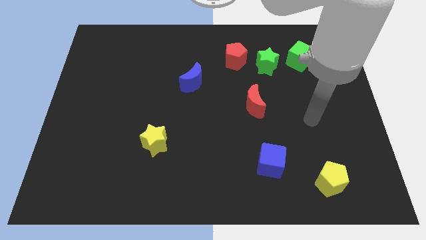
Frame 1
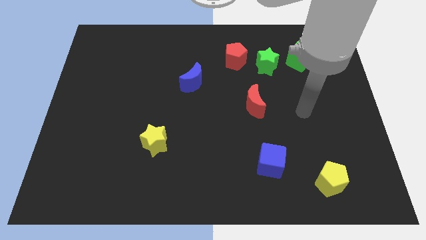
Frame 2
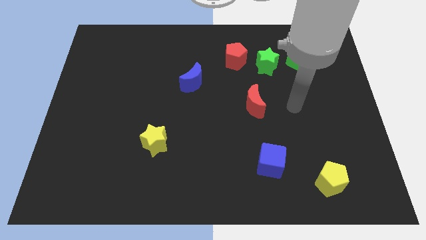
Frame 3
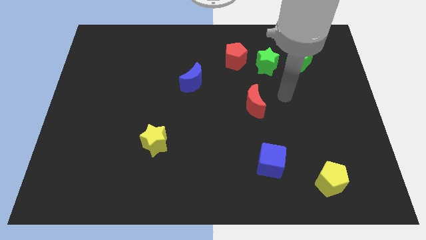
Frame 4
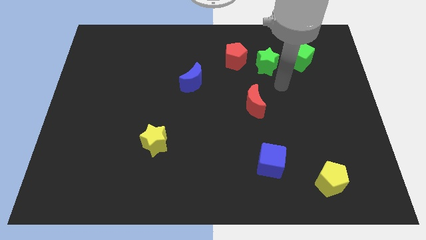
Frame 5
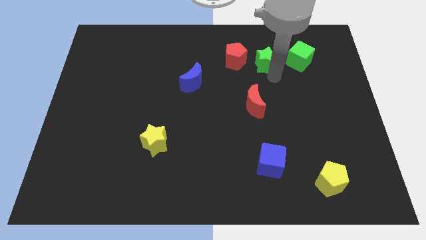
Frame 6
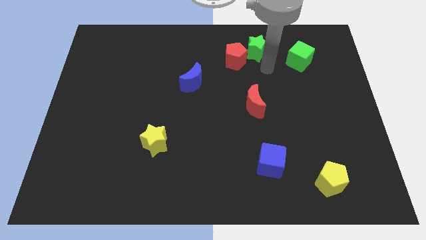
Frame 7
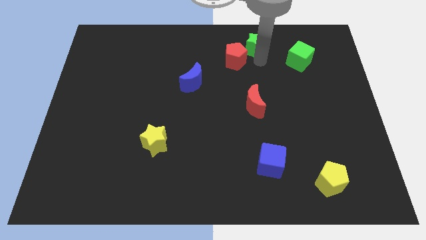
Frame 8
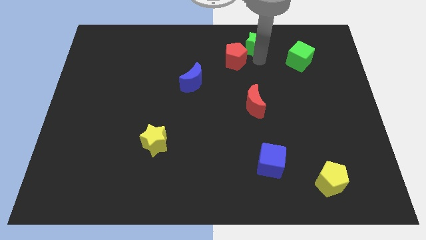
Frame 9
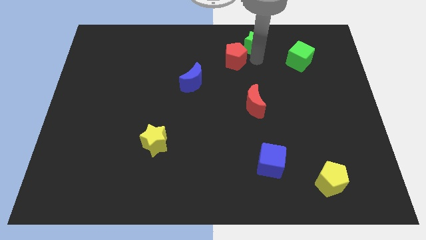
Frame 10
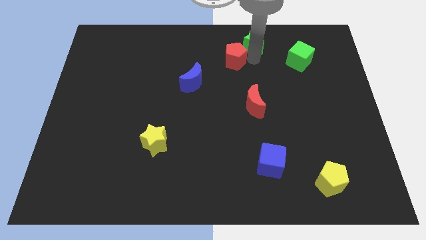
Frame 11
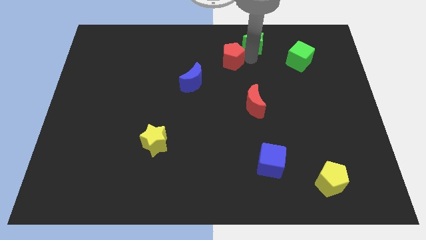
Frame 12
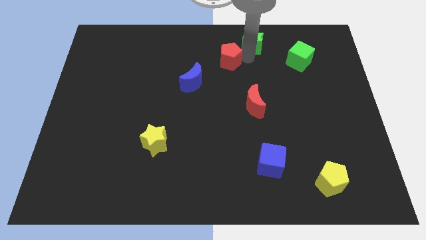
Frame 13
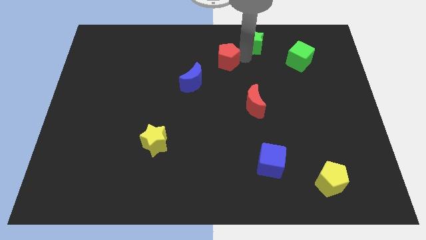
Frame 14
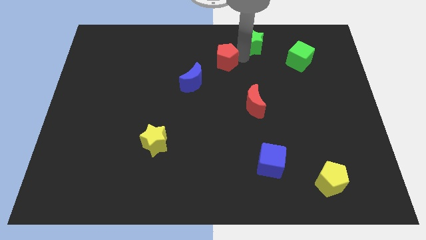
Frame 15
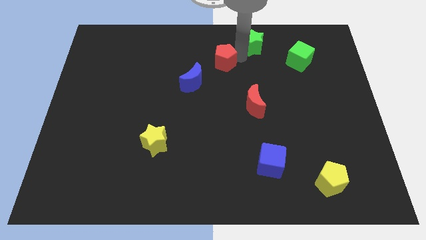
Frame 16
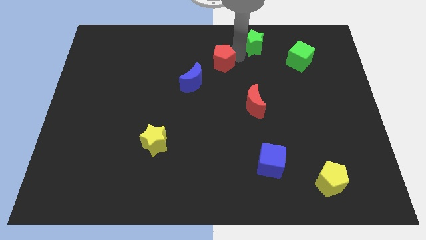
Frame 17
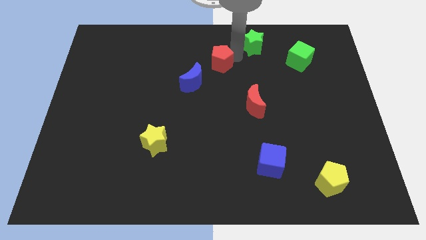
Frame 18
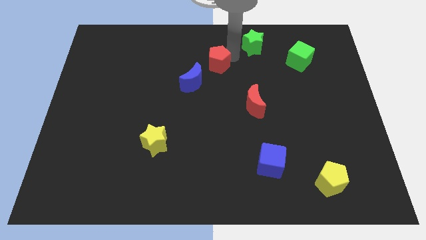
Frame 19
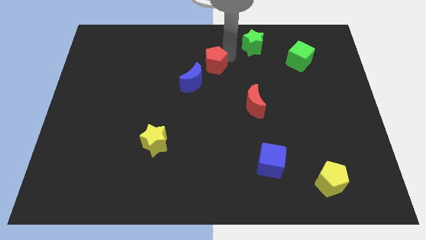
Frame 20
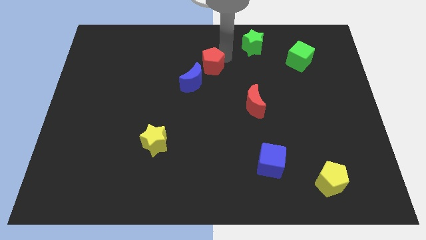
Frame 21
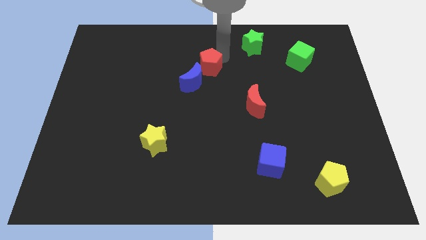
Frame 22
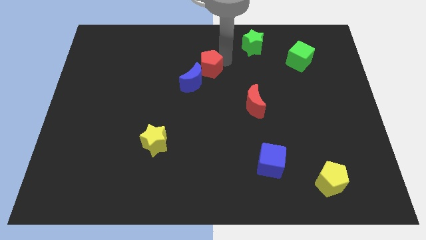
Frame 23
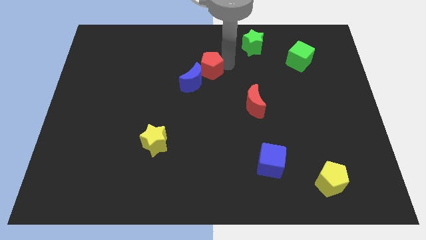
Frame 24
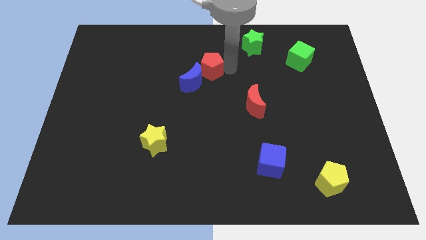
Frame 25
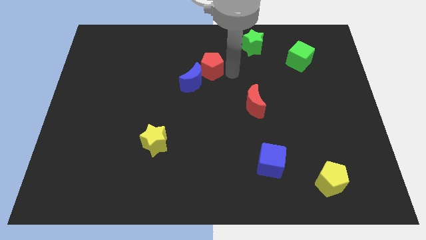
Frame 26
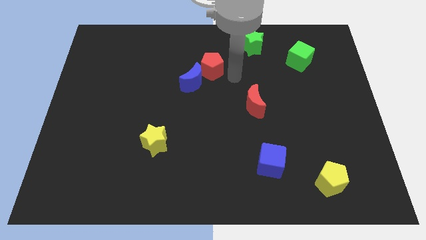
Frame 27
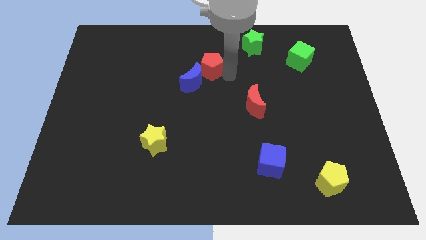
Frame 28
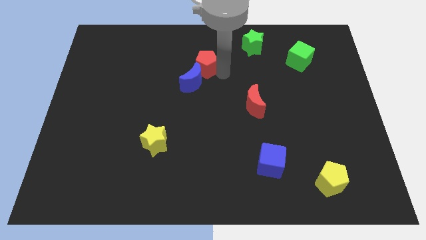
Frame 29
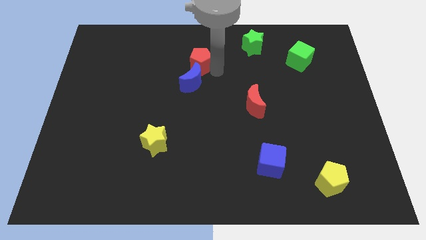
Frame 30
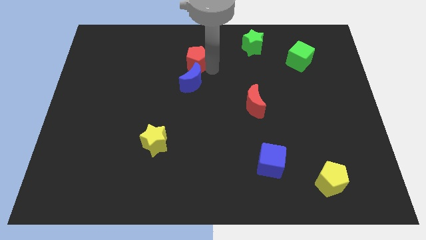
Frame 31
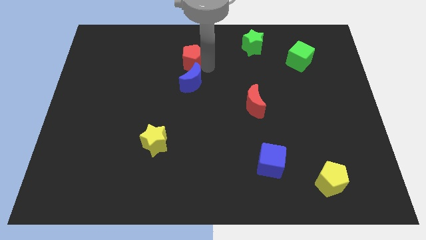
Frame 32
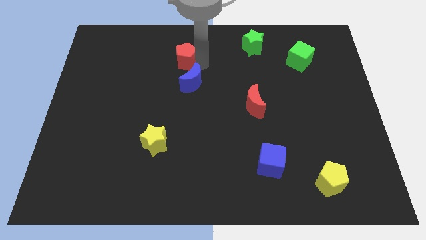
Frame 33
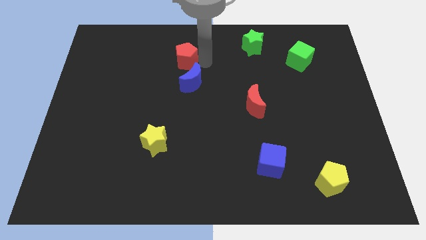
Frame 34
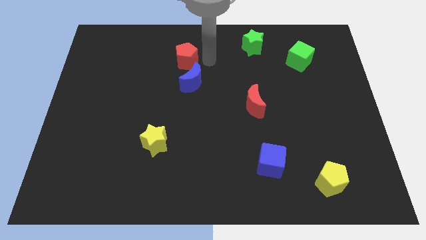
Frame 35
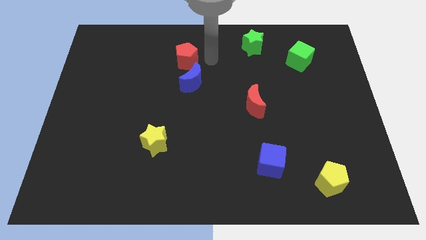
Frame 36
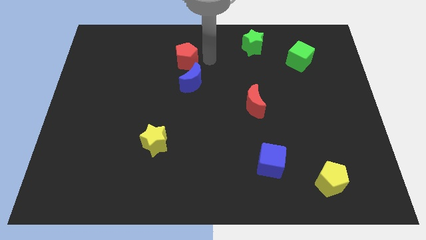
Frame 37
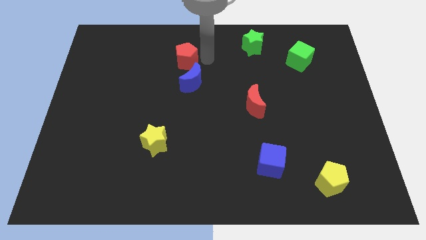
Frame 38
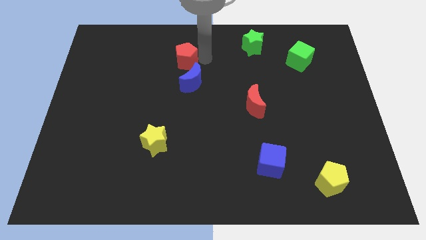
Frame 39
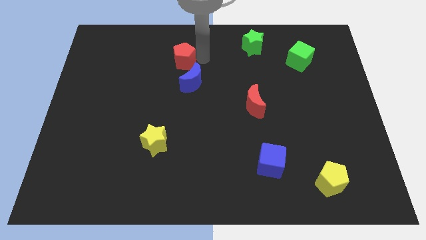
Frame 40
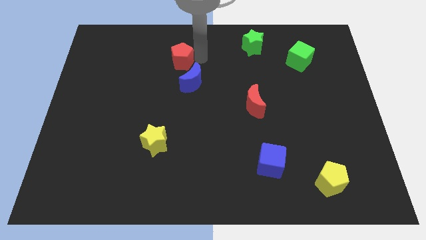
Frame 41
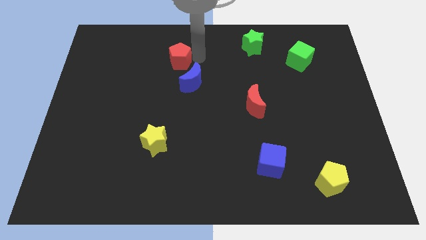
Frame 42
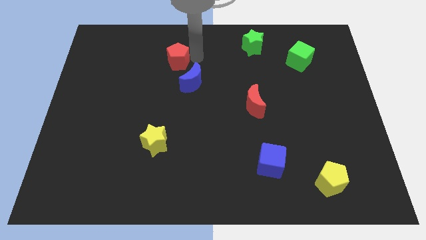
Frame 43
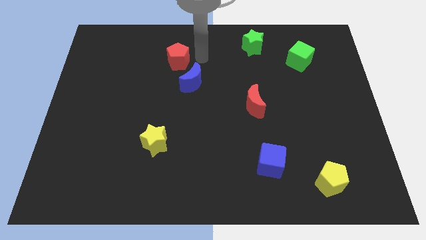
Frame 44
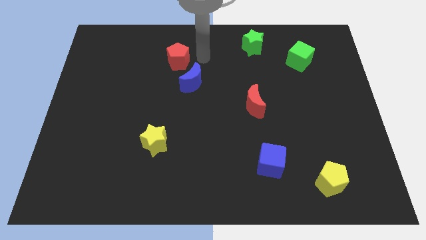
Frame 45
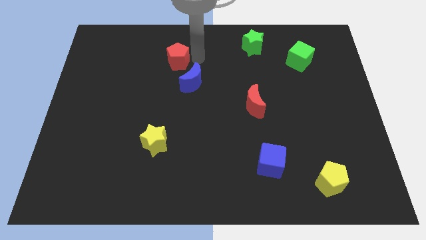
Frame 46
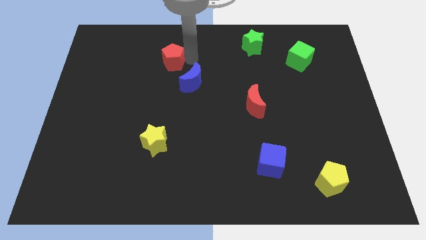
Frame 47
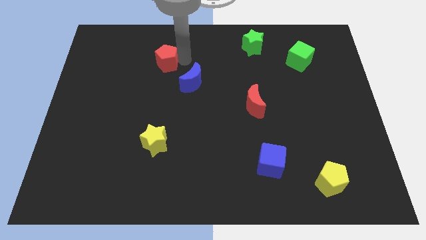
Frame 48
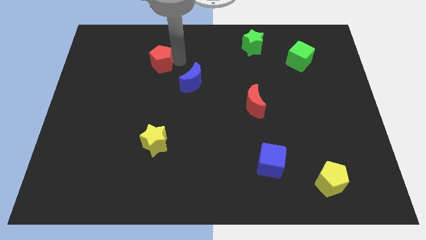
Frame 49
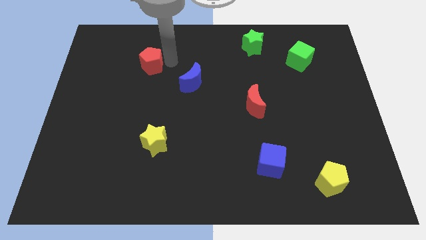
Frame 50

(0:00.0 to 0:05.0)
move the red pentagon left

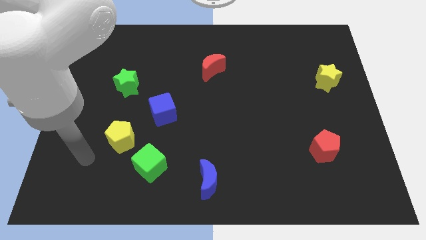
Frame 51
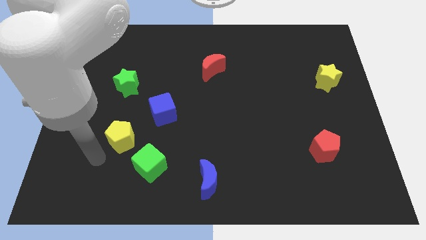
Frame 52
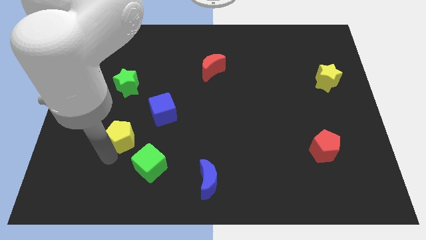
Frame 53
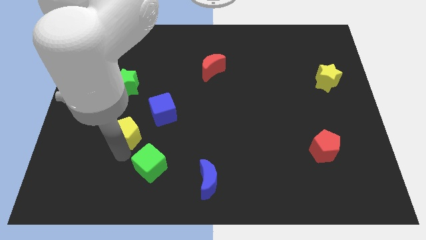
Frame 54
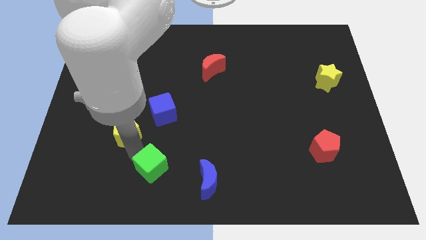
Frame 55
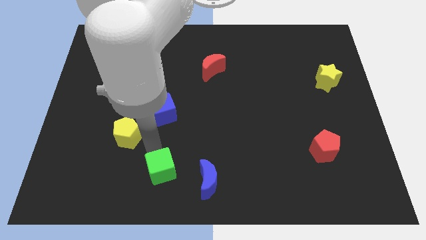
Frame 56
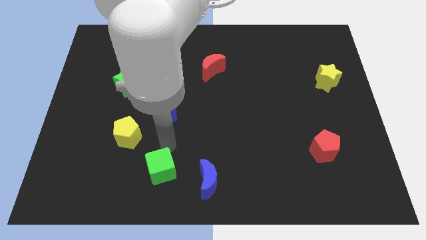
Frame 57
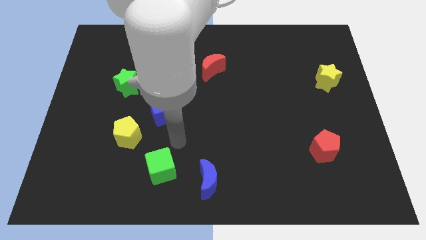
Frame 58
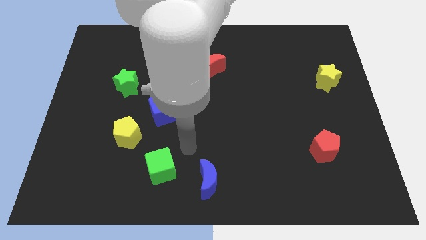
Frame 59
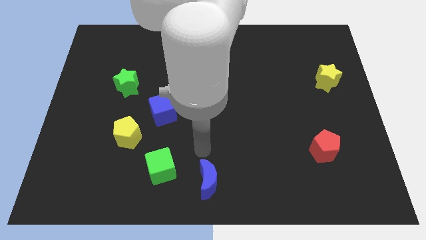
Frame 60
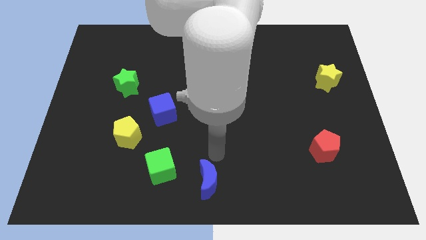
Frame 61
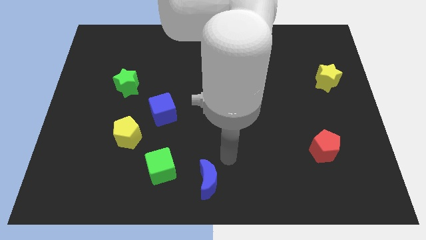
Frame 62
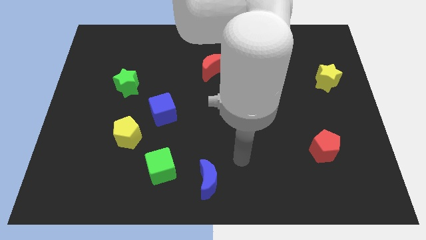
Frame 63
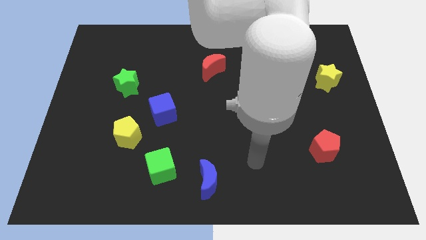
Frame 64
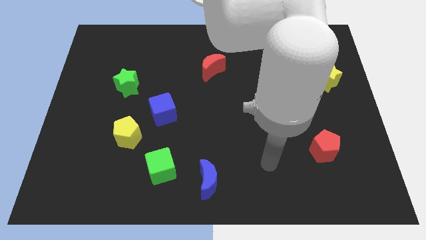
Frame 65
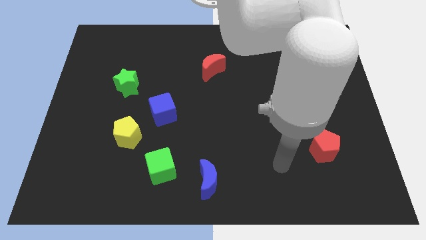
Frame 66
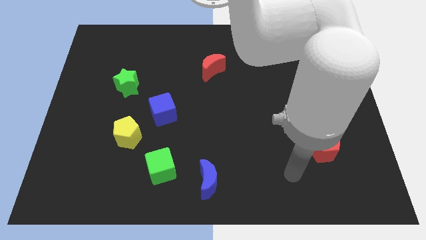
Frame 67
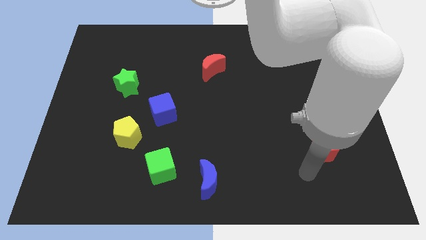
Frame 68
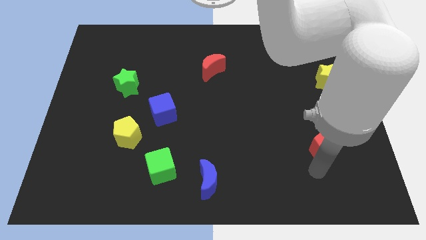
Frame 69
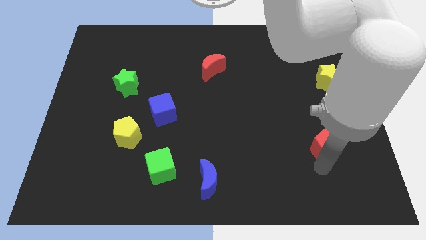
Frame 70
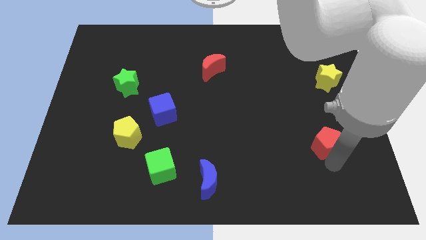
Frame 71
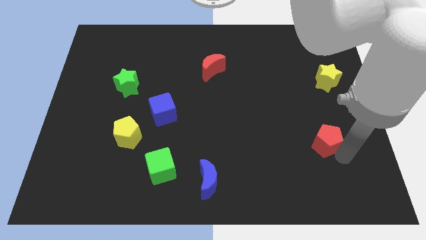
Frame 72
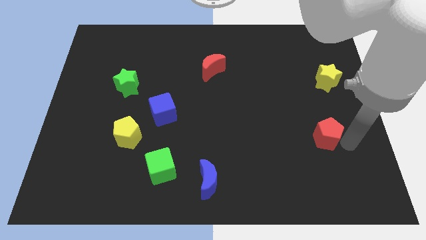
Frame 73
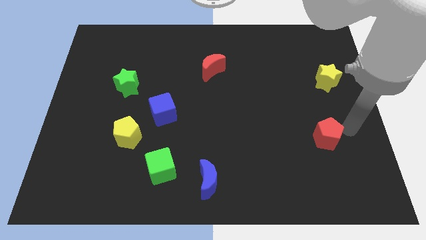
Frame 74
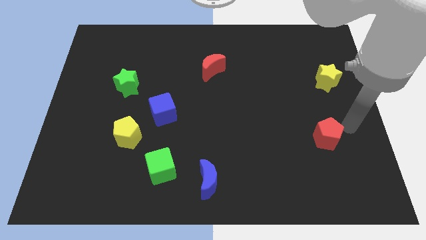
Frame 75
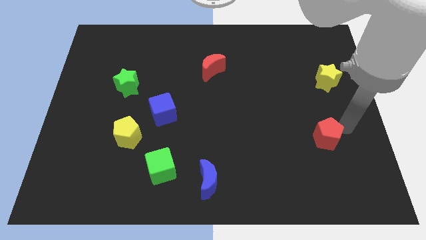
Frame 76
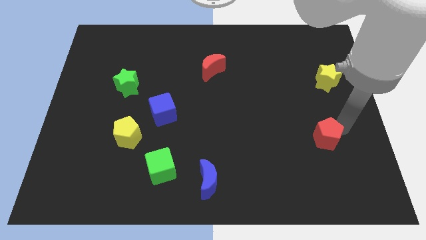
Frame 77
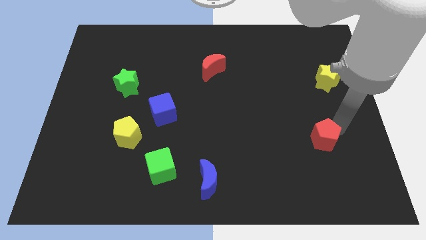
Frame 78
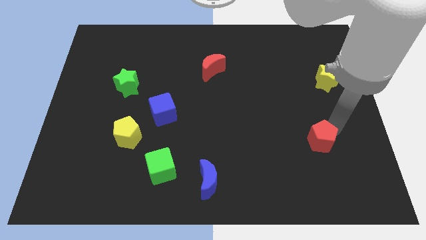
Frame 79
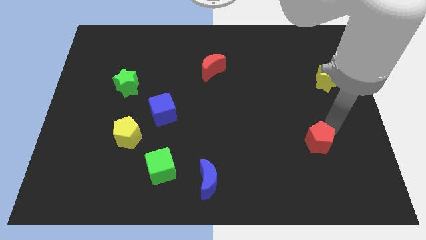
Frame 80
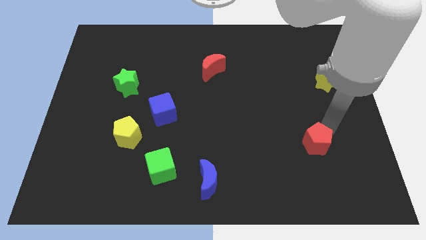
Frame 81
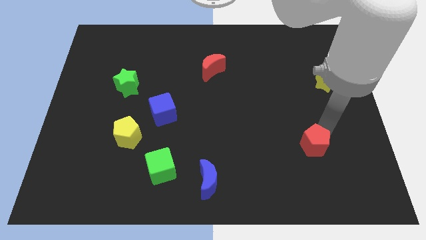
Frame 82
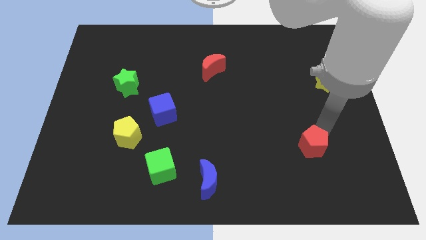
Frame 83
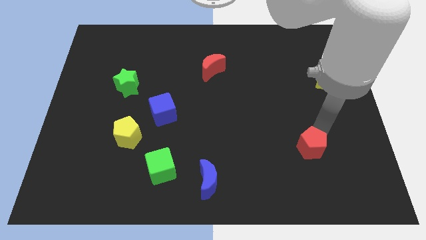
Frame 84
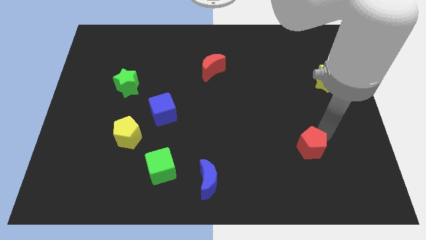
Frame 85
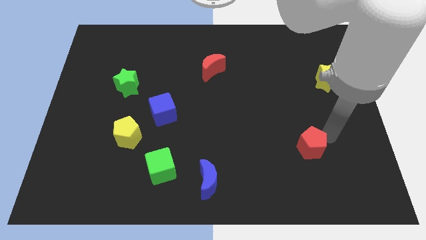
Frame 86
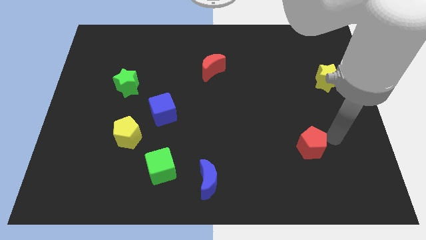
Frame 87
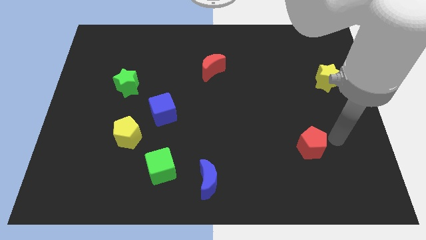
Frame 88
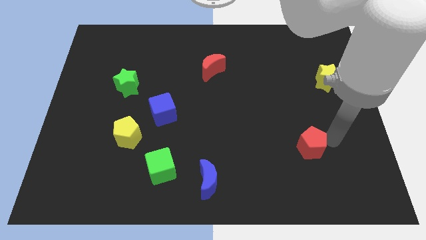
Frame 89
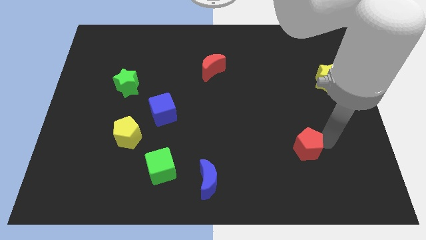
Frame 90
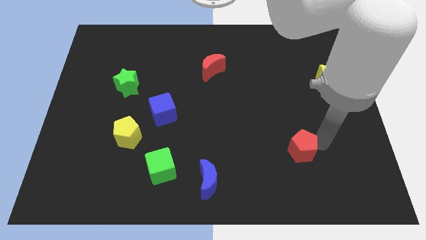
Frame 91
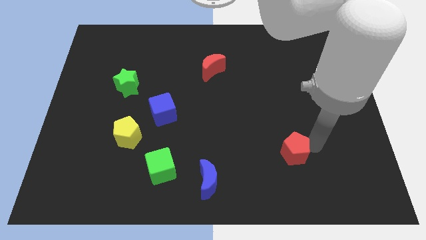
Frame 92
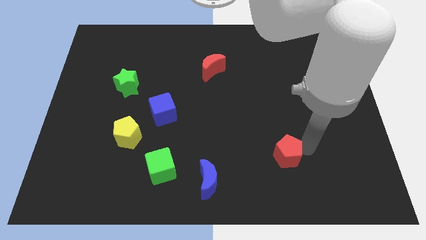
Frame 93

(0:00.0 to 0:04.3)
move the red pentagon left a little
